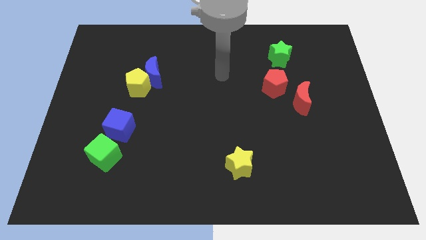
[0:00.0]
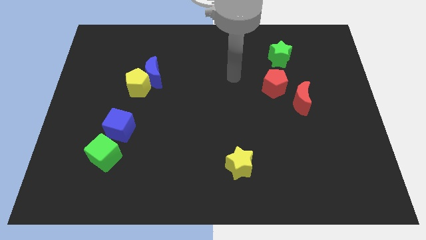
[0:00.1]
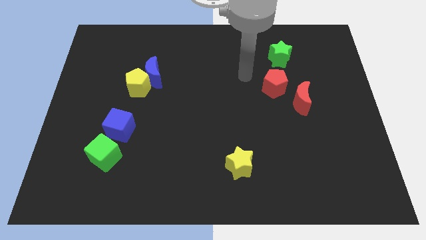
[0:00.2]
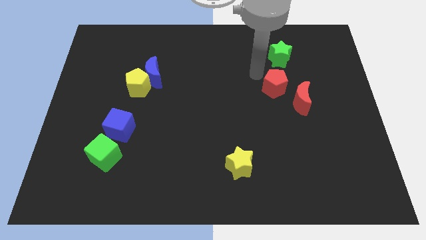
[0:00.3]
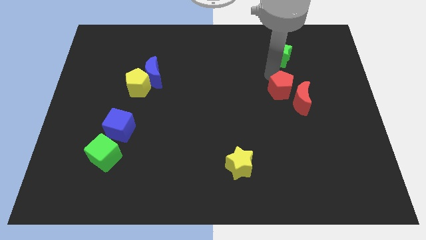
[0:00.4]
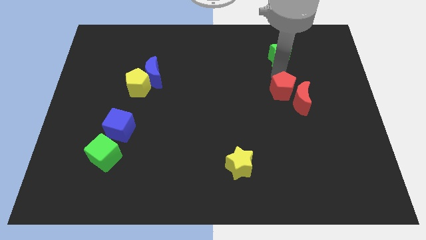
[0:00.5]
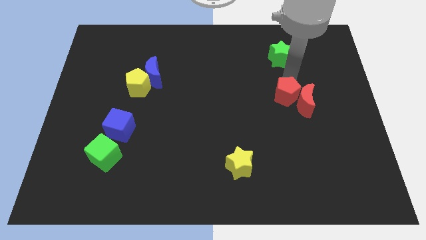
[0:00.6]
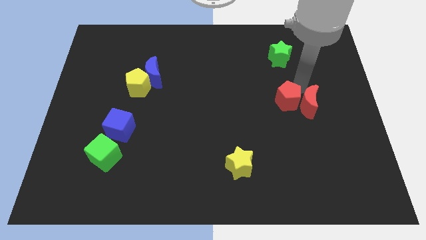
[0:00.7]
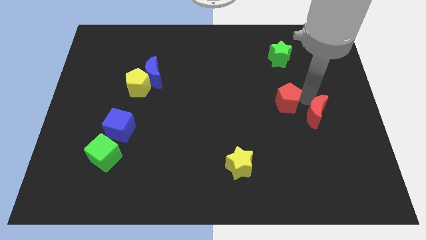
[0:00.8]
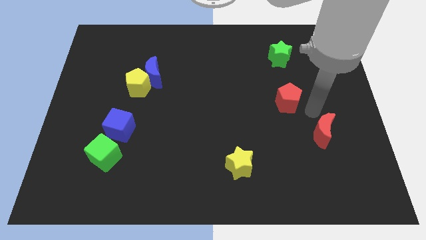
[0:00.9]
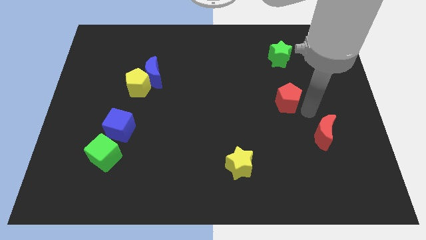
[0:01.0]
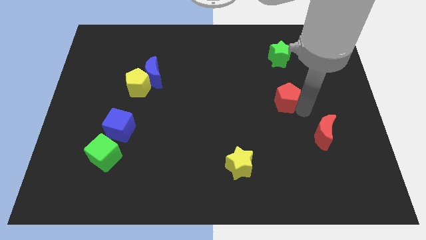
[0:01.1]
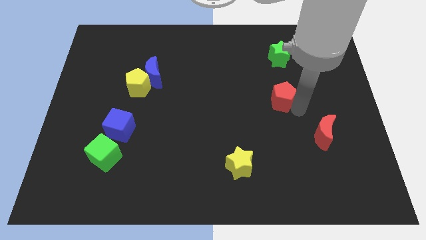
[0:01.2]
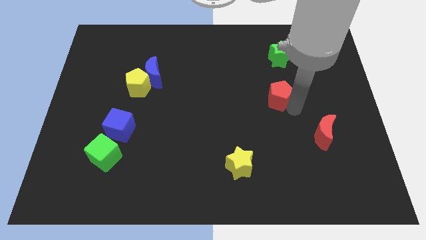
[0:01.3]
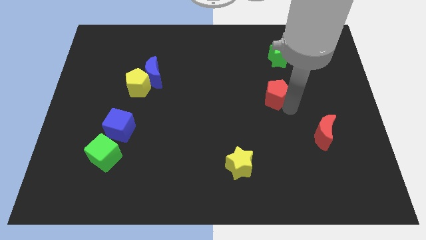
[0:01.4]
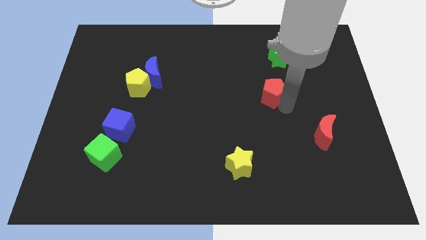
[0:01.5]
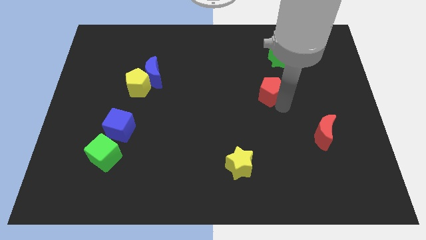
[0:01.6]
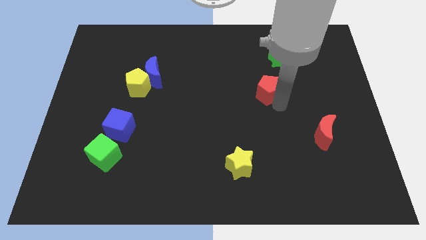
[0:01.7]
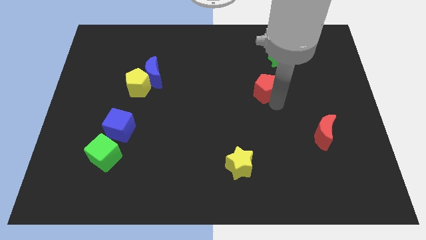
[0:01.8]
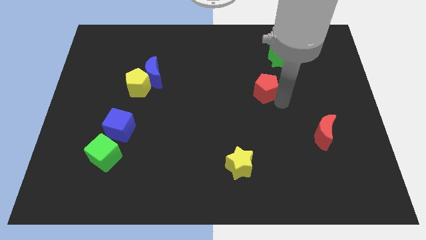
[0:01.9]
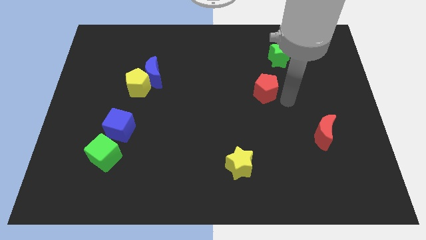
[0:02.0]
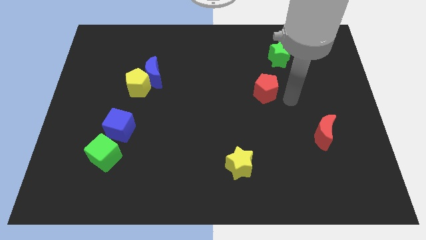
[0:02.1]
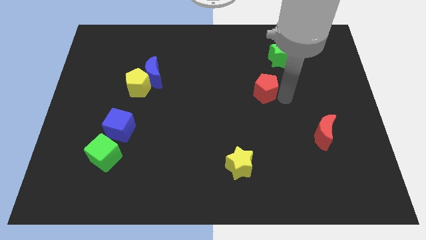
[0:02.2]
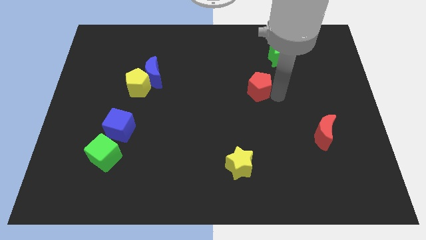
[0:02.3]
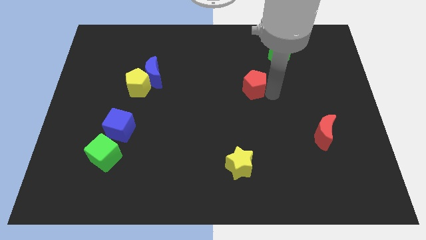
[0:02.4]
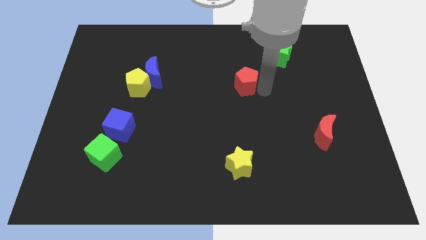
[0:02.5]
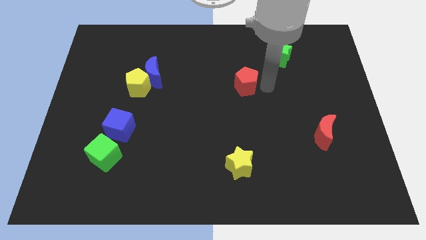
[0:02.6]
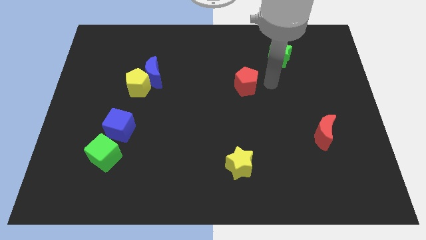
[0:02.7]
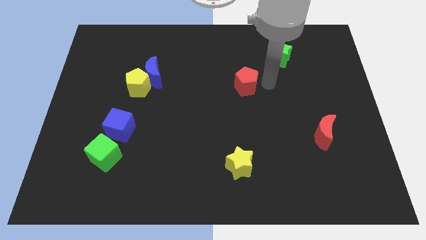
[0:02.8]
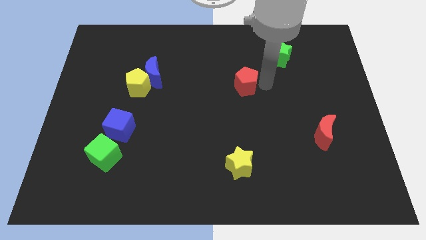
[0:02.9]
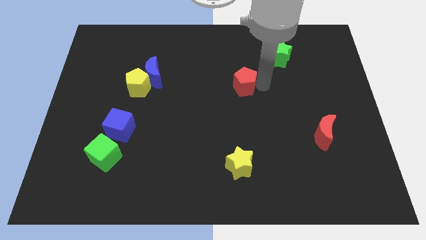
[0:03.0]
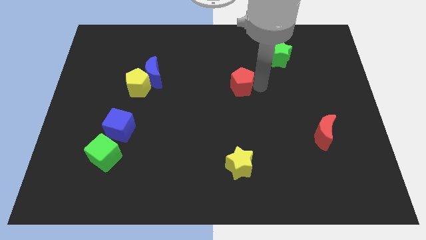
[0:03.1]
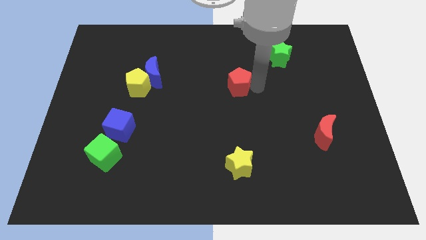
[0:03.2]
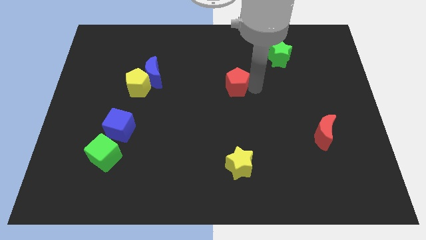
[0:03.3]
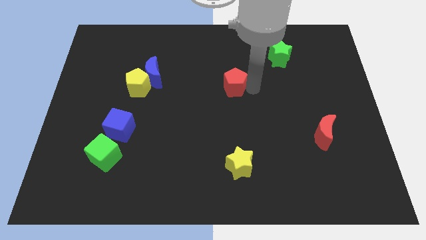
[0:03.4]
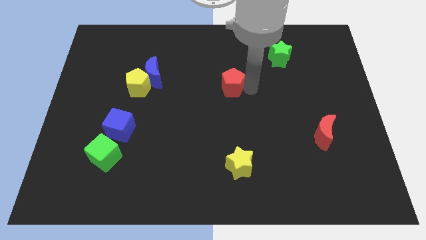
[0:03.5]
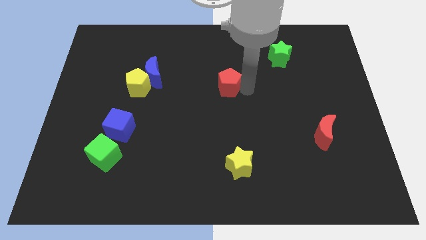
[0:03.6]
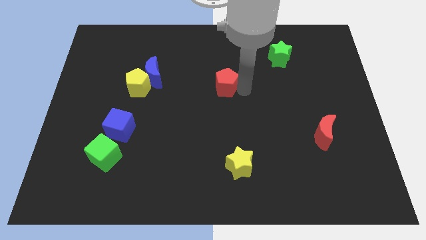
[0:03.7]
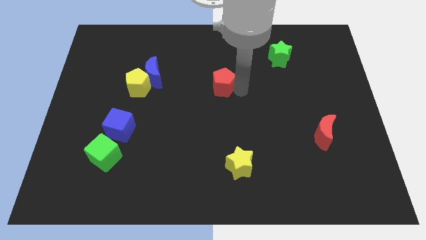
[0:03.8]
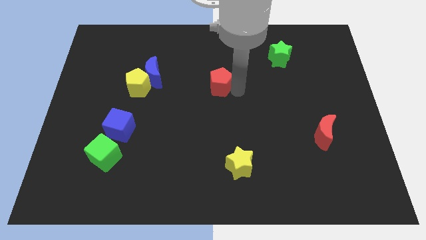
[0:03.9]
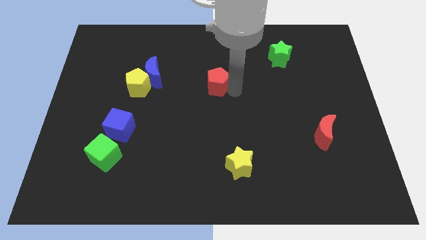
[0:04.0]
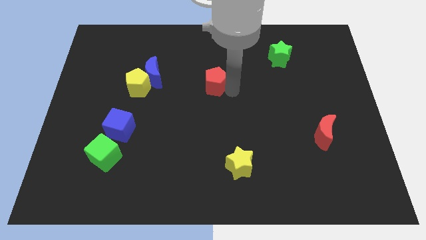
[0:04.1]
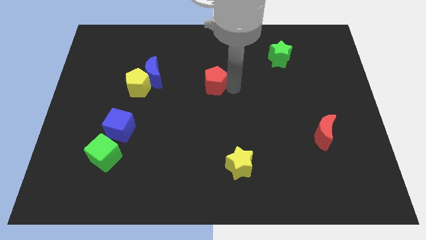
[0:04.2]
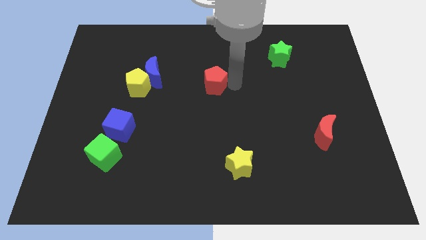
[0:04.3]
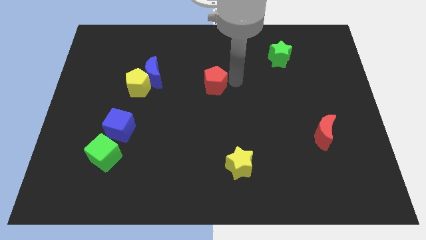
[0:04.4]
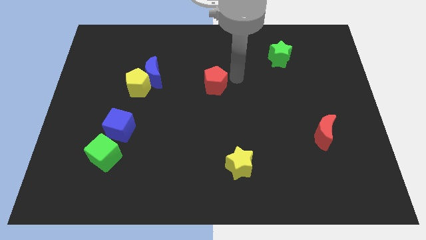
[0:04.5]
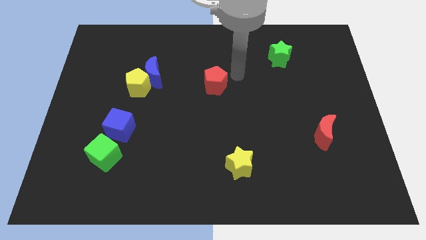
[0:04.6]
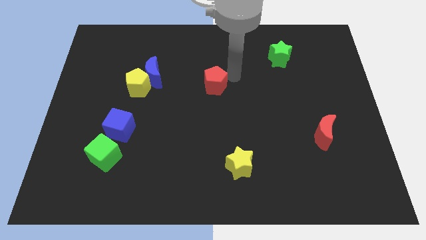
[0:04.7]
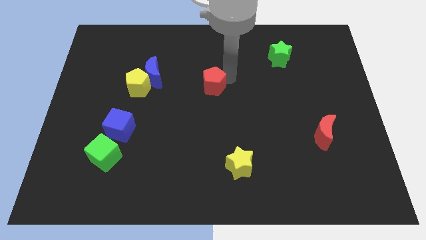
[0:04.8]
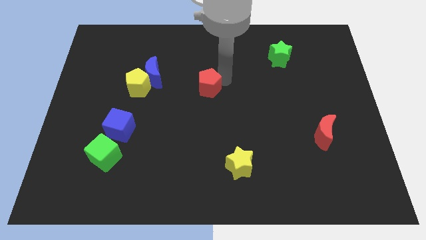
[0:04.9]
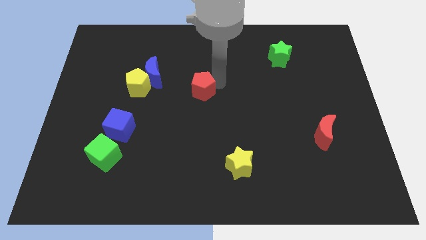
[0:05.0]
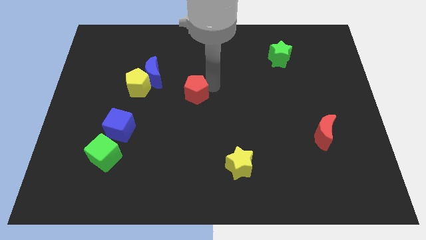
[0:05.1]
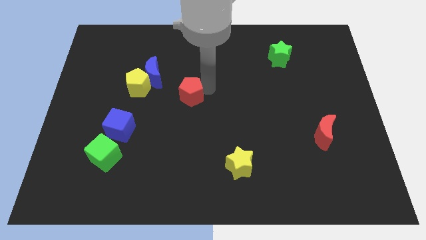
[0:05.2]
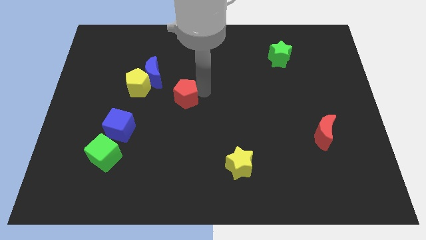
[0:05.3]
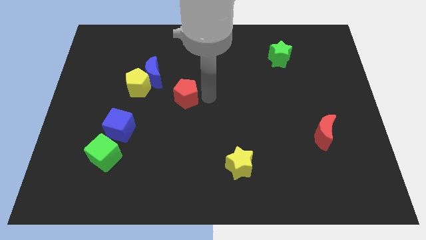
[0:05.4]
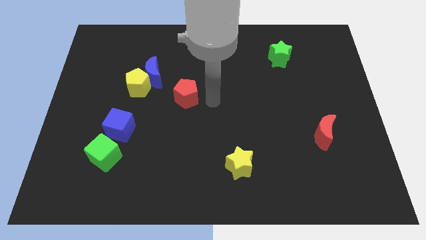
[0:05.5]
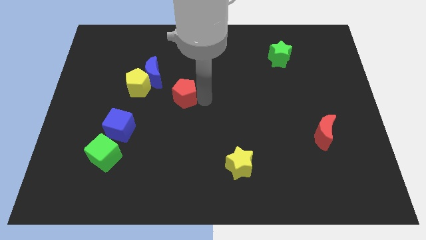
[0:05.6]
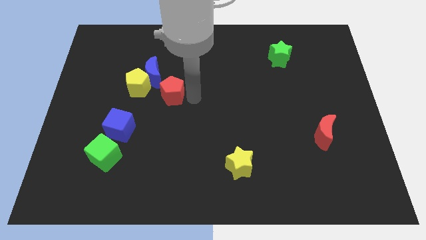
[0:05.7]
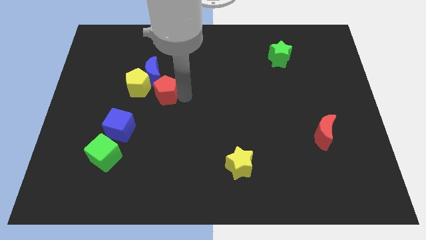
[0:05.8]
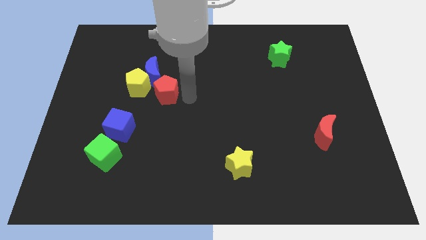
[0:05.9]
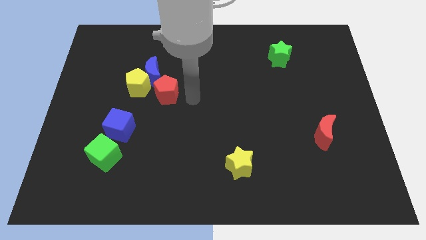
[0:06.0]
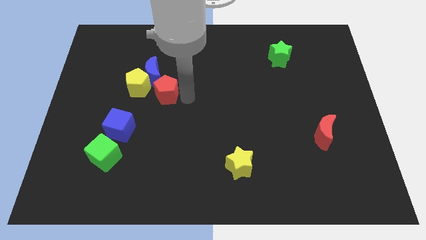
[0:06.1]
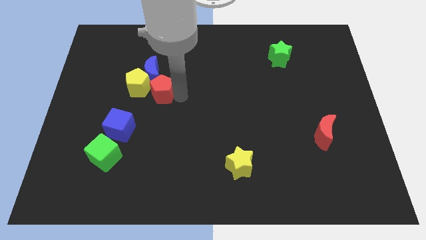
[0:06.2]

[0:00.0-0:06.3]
push the red pentagon close to the yellow pentagon

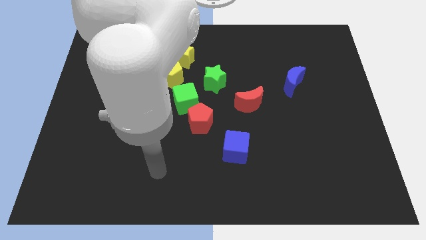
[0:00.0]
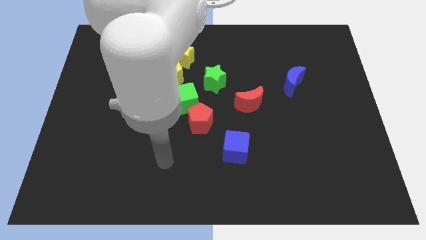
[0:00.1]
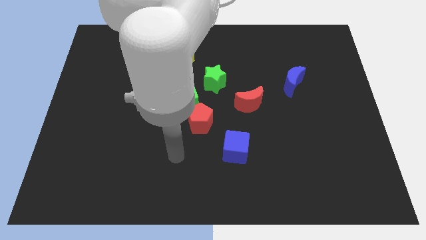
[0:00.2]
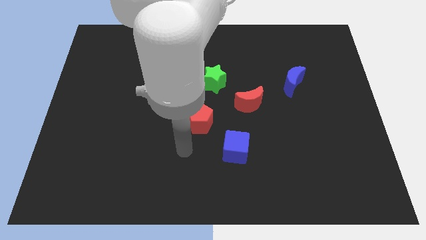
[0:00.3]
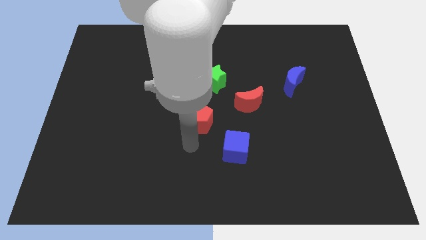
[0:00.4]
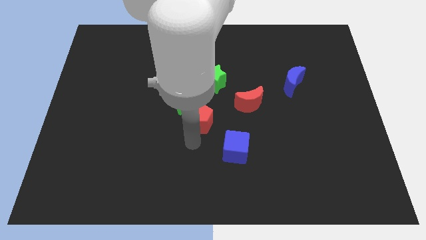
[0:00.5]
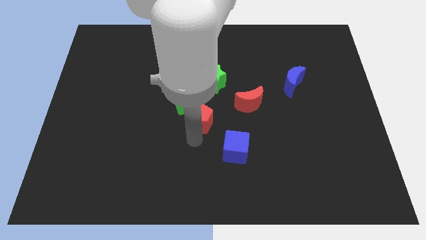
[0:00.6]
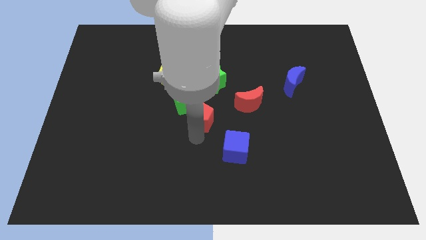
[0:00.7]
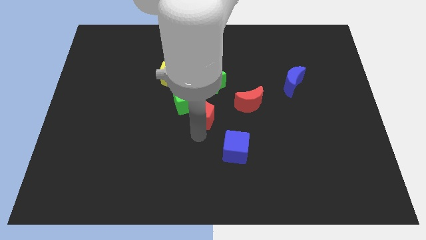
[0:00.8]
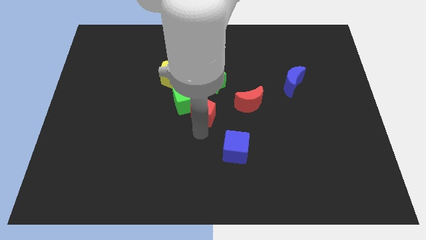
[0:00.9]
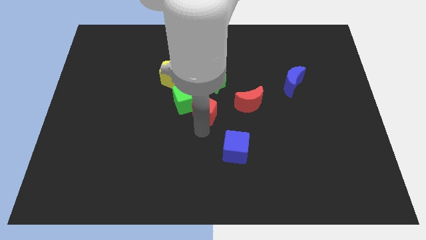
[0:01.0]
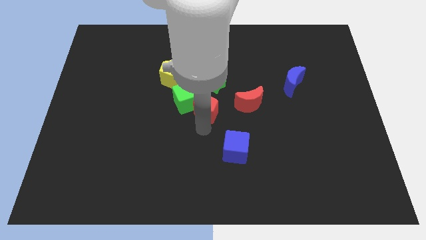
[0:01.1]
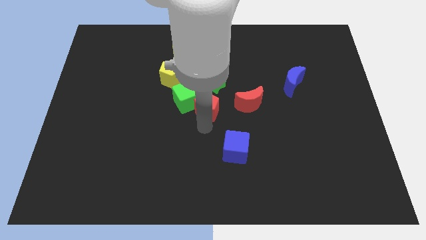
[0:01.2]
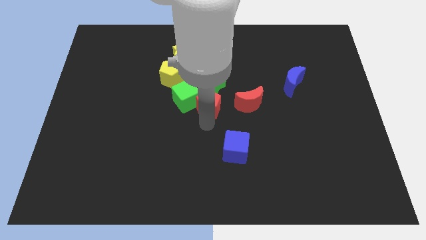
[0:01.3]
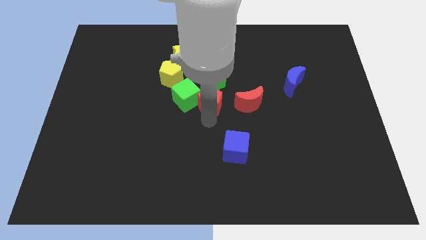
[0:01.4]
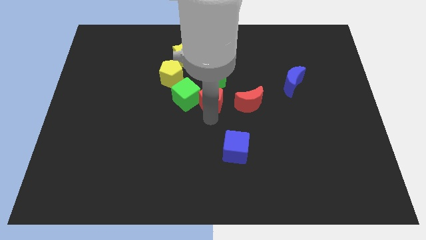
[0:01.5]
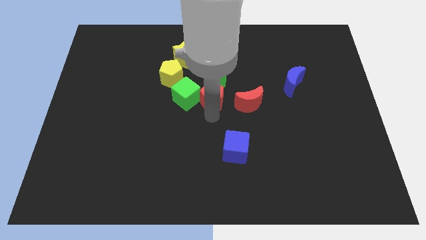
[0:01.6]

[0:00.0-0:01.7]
slide the red pentagon close to the green star
